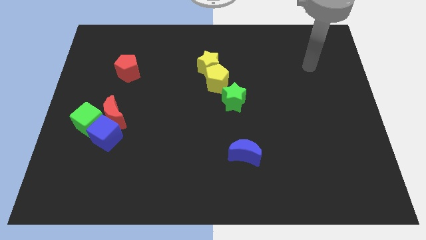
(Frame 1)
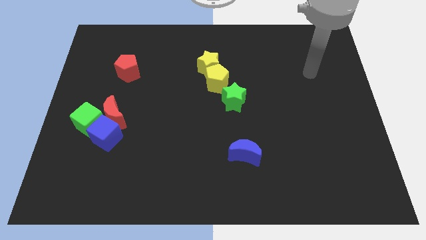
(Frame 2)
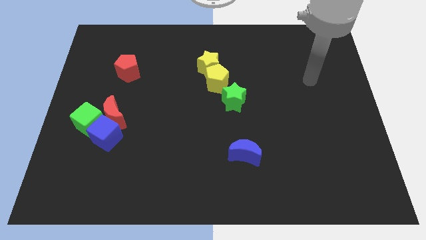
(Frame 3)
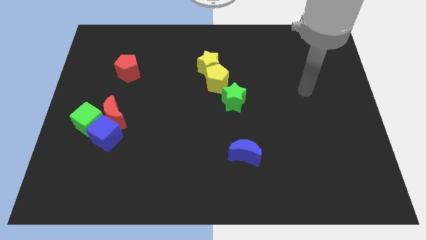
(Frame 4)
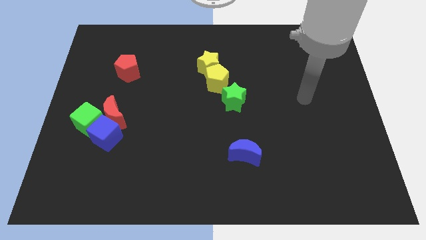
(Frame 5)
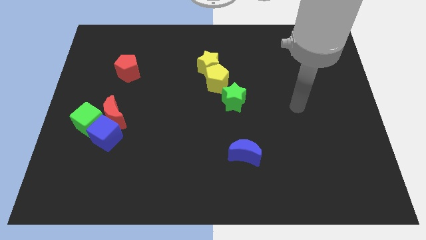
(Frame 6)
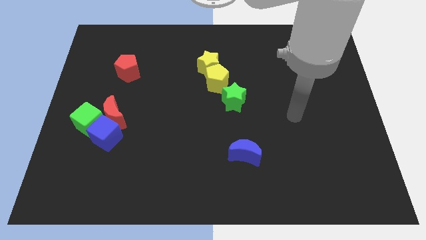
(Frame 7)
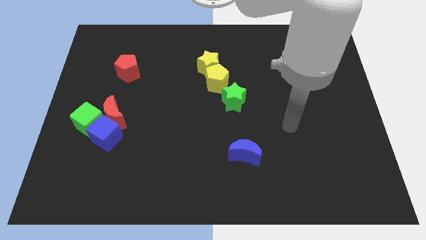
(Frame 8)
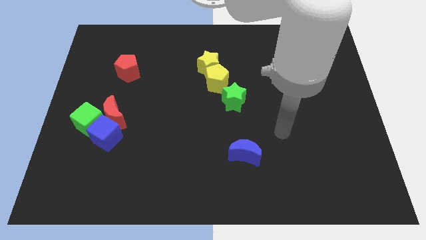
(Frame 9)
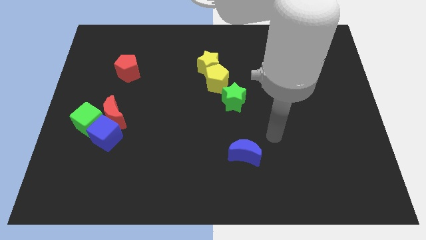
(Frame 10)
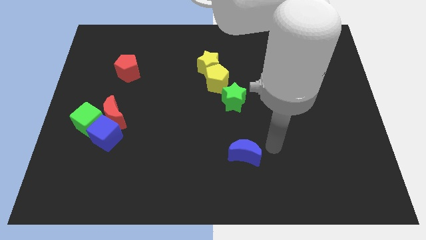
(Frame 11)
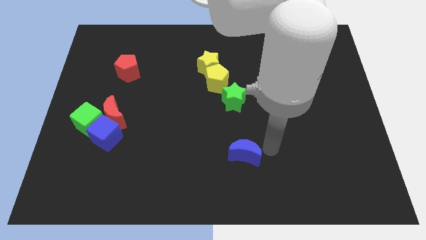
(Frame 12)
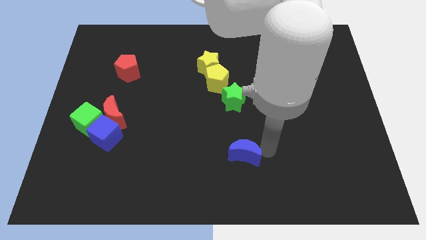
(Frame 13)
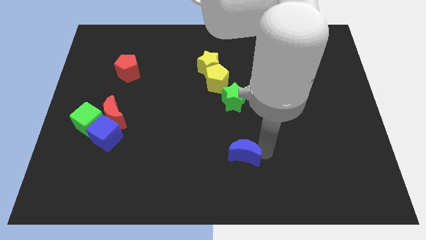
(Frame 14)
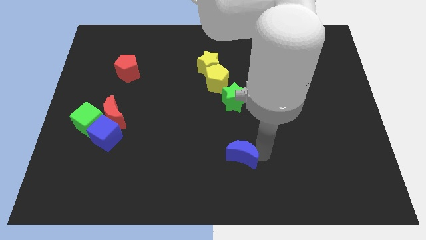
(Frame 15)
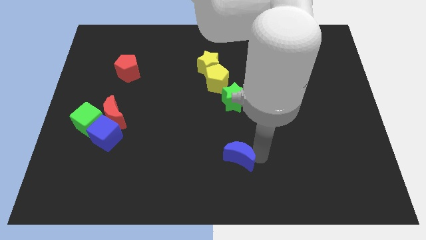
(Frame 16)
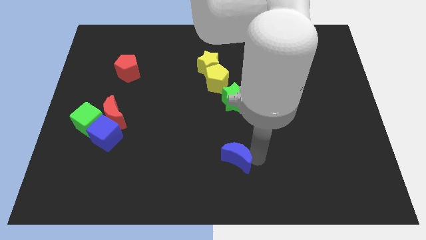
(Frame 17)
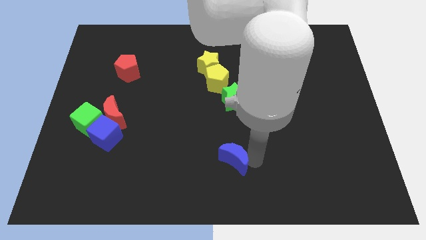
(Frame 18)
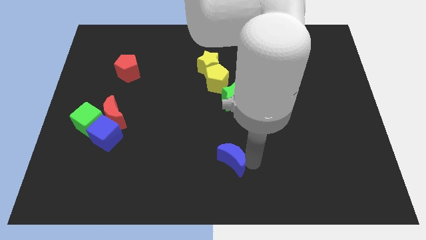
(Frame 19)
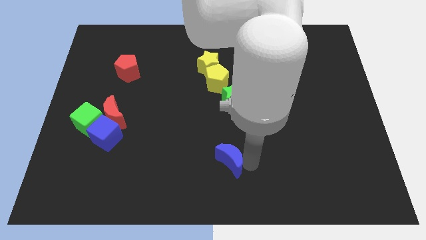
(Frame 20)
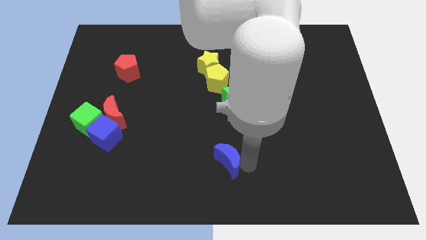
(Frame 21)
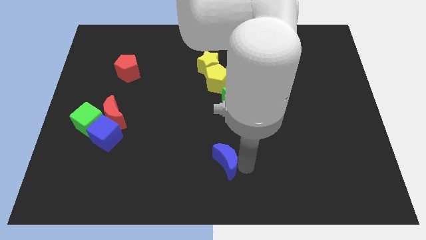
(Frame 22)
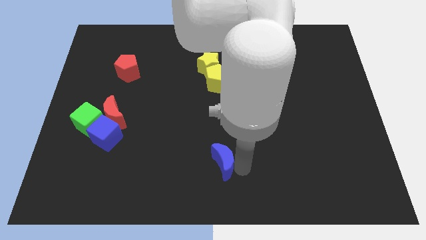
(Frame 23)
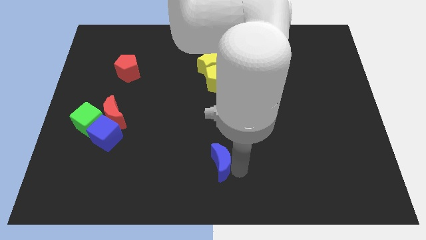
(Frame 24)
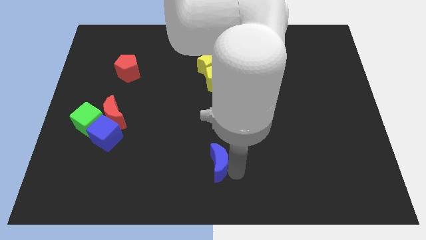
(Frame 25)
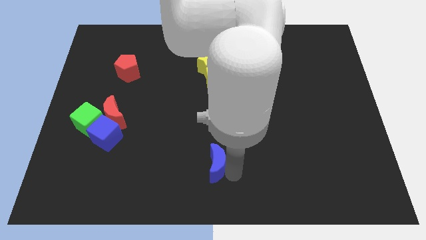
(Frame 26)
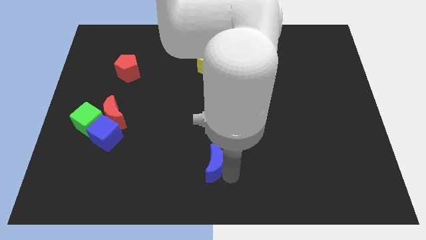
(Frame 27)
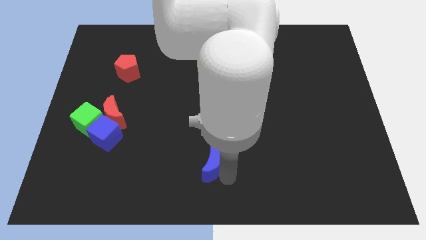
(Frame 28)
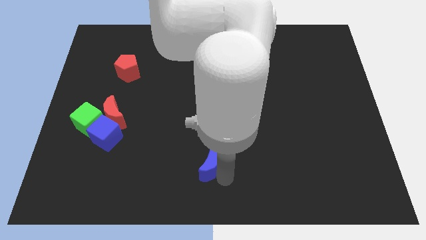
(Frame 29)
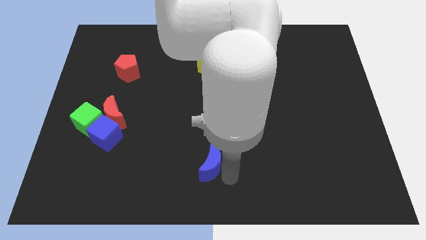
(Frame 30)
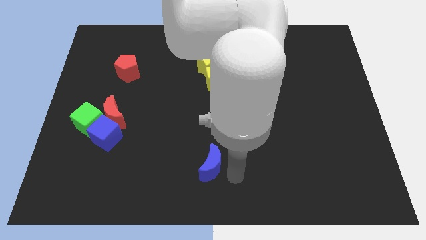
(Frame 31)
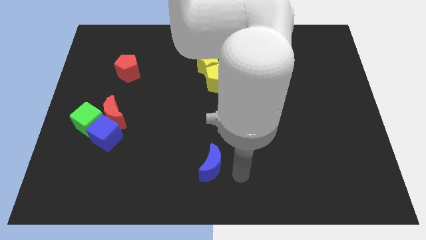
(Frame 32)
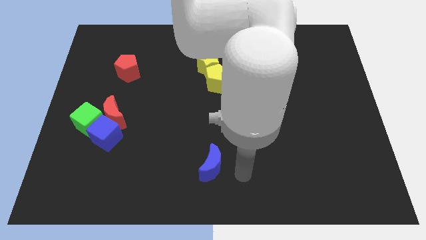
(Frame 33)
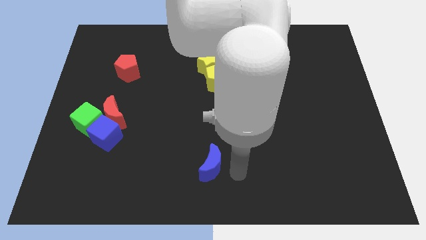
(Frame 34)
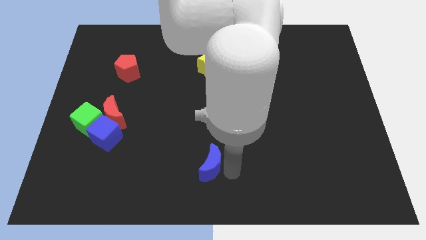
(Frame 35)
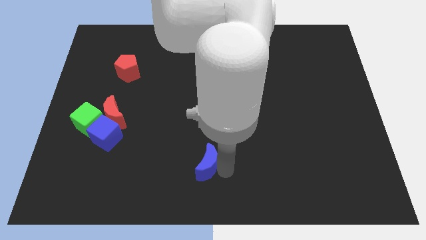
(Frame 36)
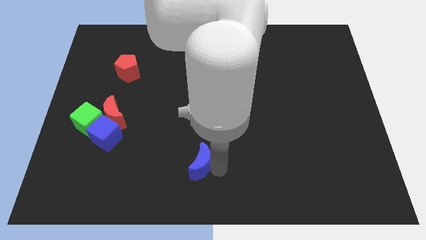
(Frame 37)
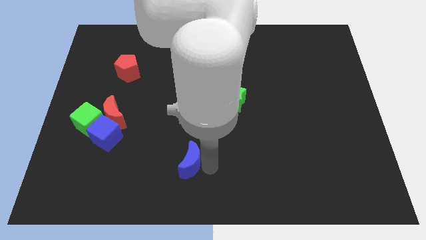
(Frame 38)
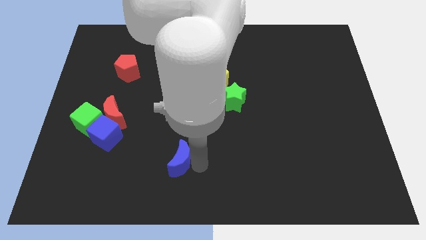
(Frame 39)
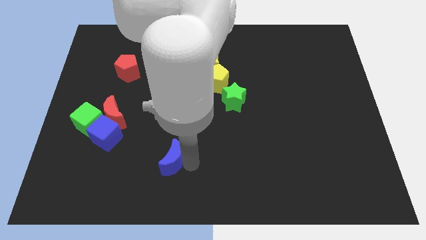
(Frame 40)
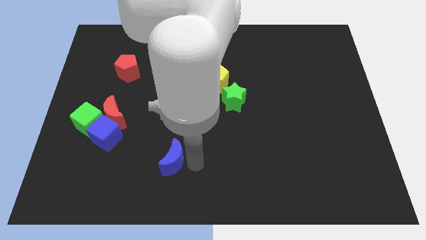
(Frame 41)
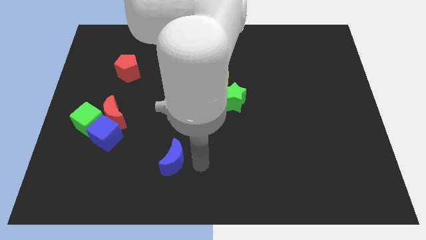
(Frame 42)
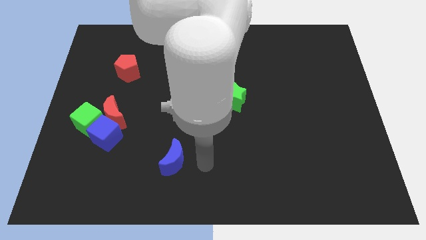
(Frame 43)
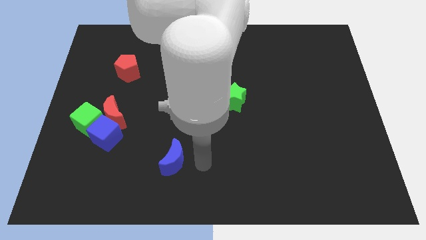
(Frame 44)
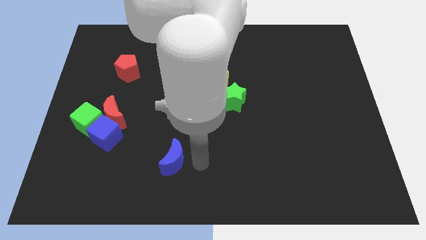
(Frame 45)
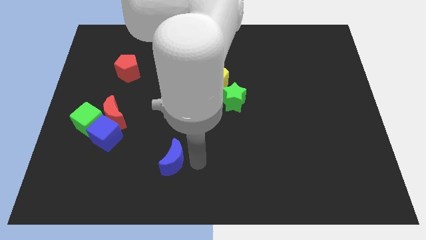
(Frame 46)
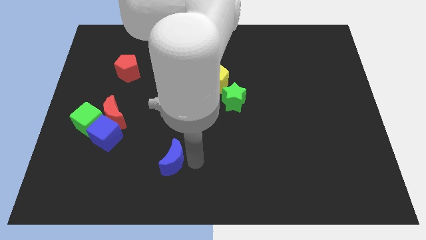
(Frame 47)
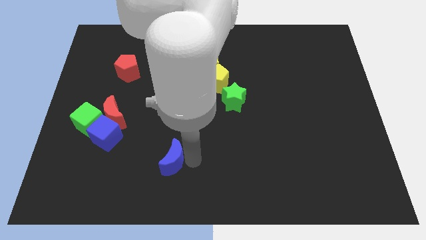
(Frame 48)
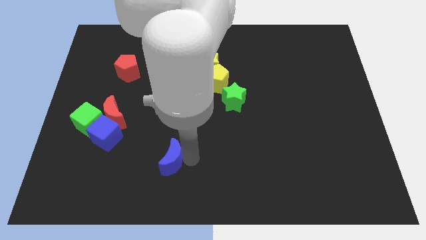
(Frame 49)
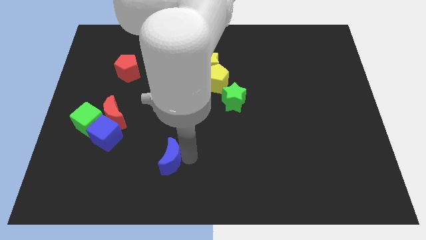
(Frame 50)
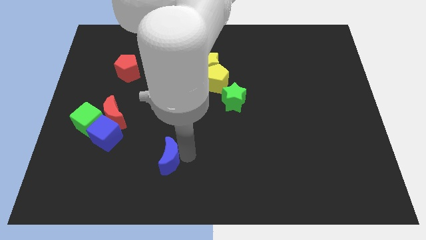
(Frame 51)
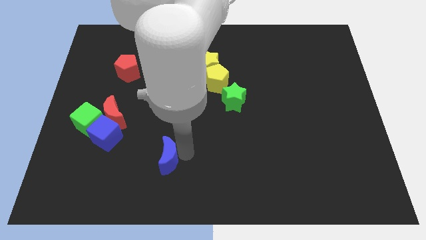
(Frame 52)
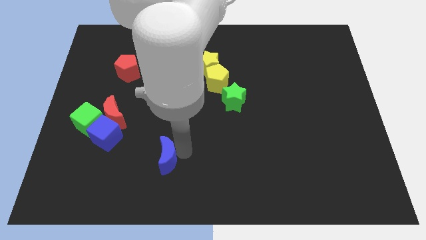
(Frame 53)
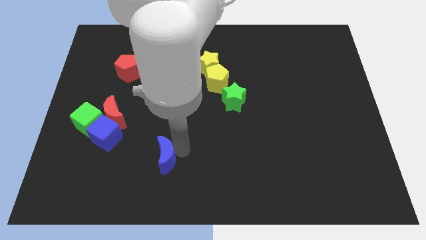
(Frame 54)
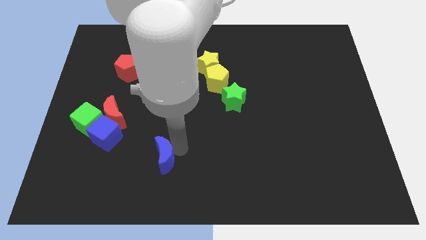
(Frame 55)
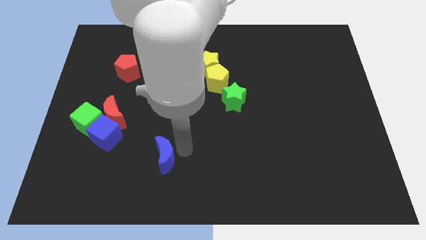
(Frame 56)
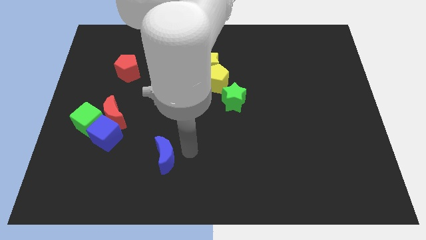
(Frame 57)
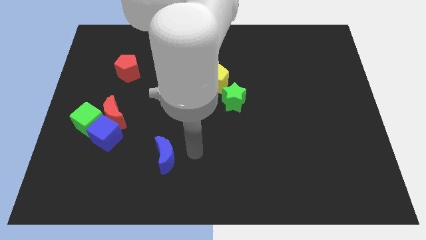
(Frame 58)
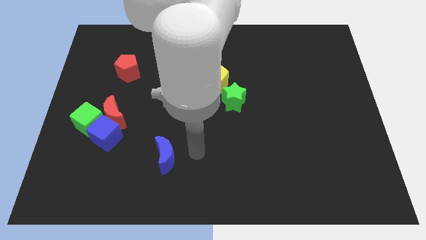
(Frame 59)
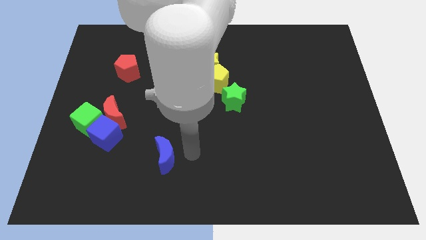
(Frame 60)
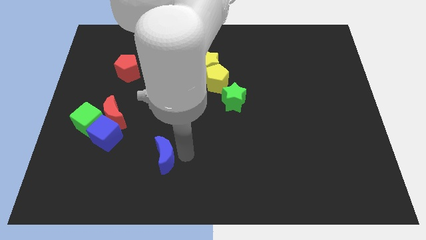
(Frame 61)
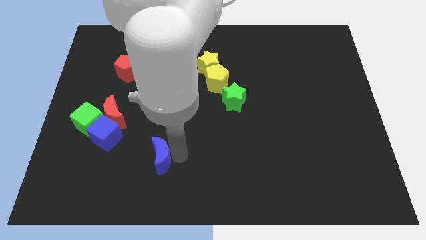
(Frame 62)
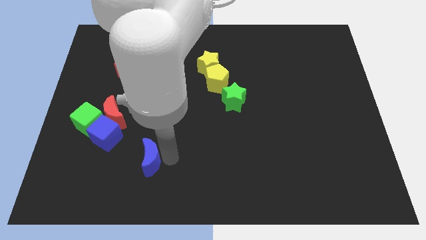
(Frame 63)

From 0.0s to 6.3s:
push the blue moon left

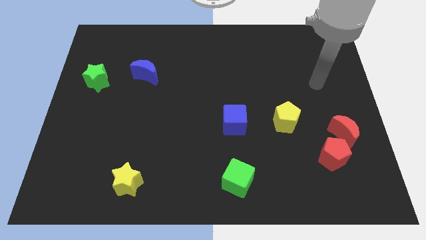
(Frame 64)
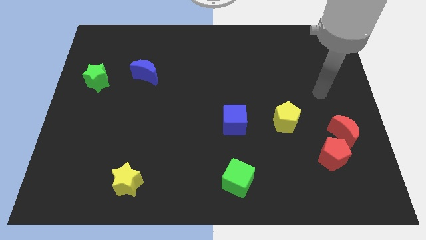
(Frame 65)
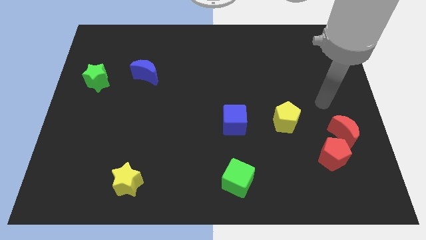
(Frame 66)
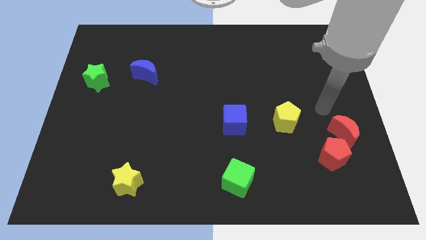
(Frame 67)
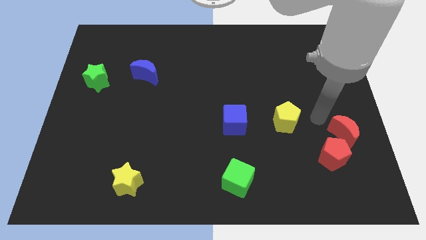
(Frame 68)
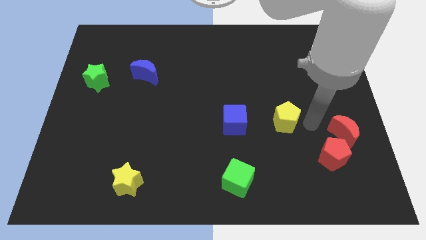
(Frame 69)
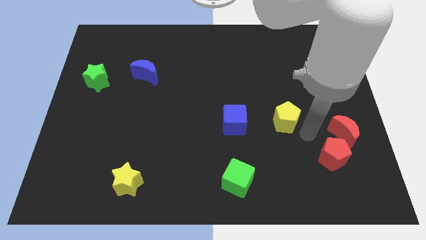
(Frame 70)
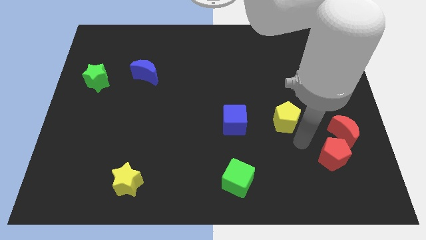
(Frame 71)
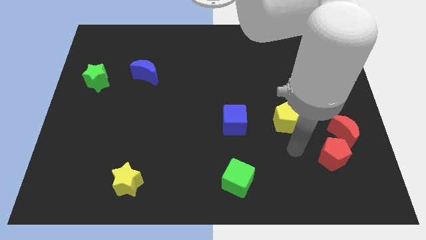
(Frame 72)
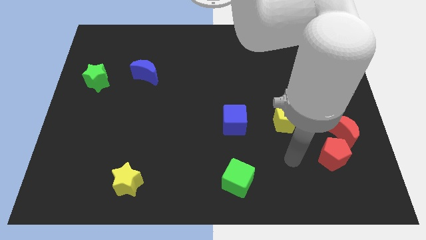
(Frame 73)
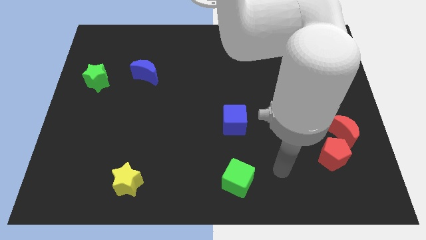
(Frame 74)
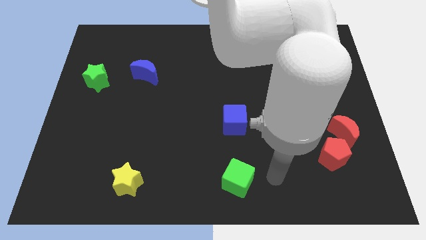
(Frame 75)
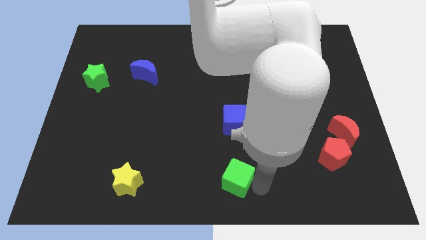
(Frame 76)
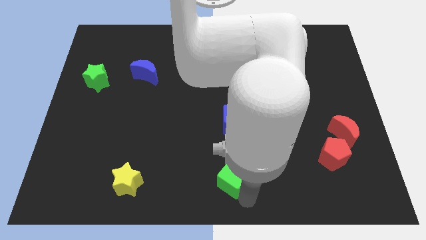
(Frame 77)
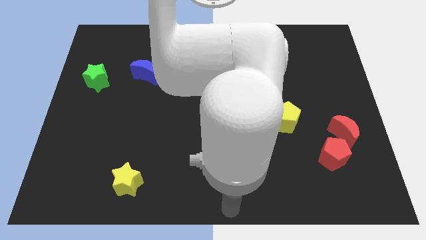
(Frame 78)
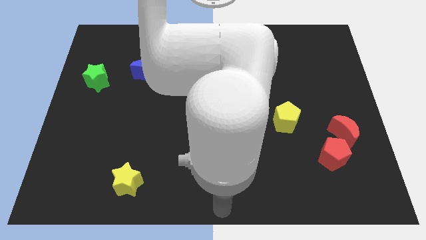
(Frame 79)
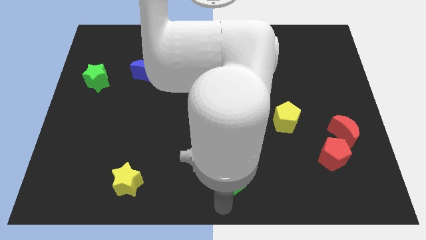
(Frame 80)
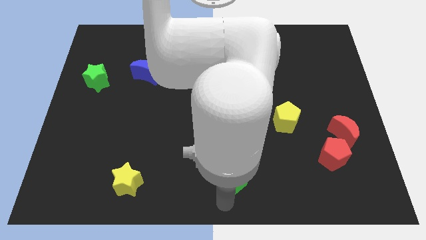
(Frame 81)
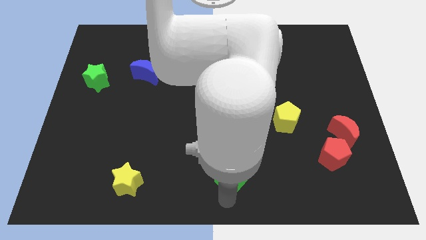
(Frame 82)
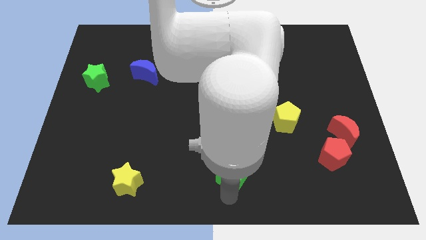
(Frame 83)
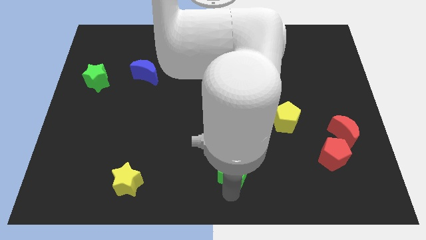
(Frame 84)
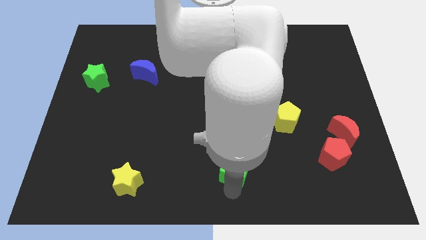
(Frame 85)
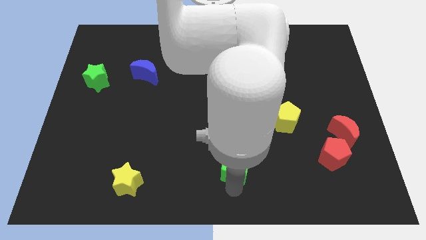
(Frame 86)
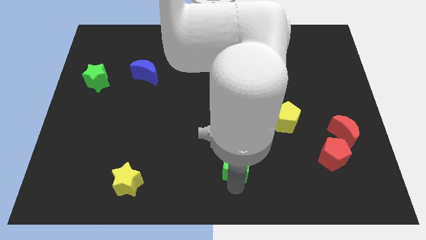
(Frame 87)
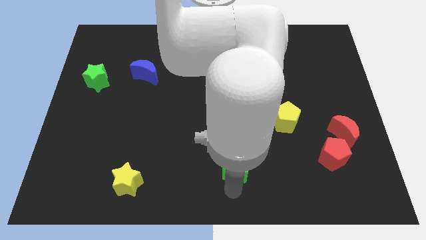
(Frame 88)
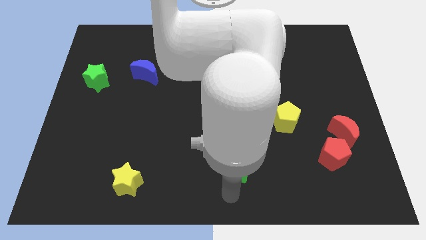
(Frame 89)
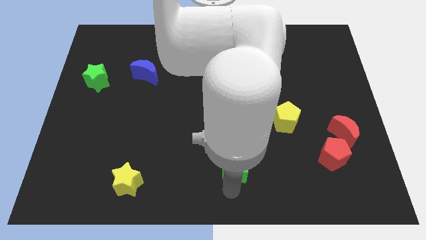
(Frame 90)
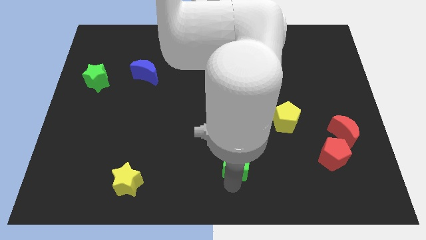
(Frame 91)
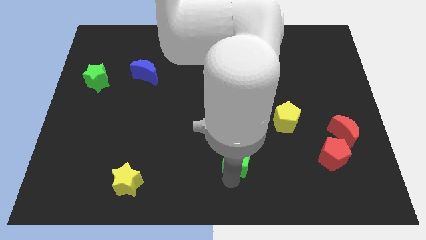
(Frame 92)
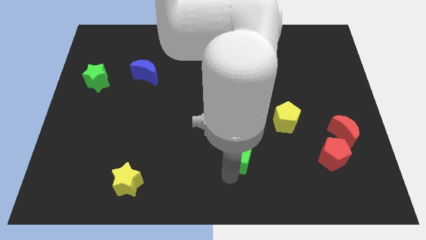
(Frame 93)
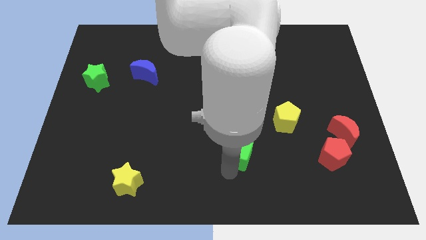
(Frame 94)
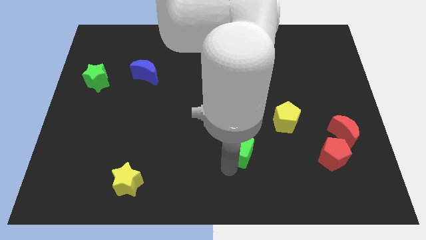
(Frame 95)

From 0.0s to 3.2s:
slightly slide the green cube upwards
